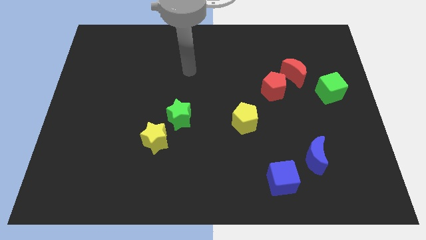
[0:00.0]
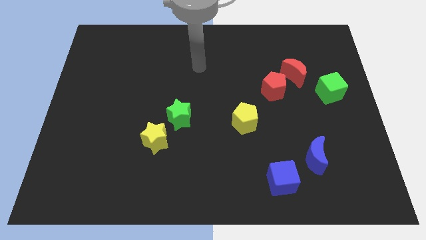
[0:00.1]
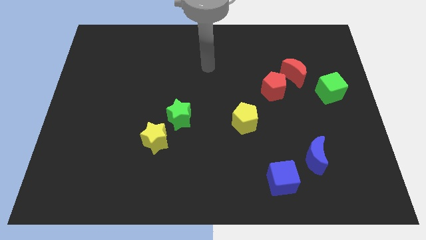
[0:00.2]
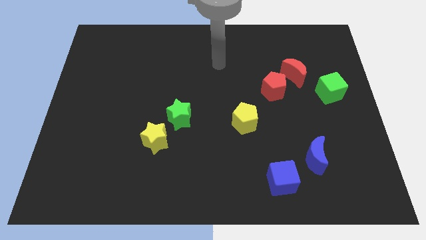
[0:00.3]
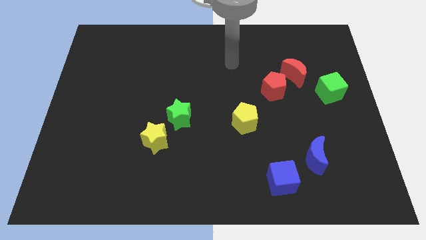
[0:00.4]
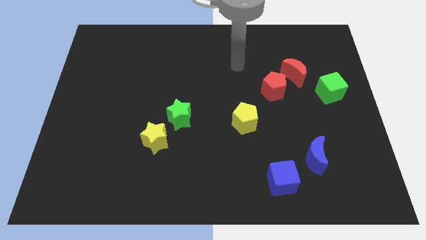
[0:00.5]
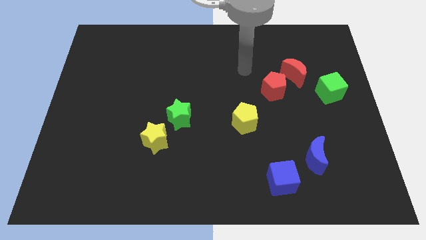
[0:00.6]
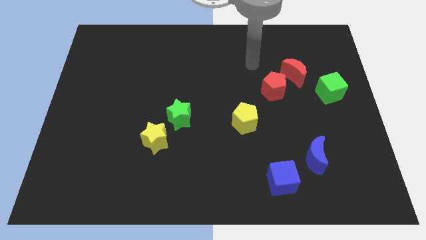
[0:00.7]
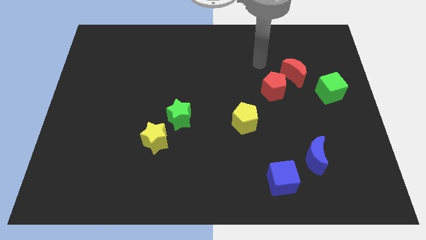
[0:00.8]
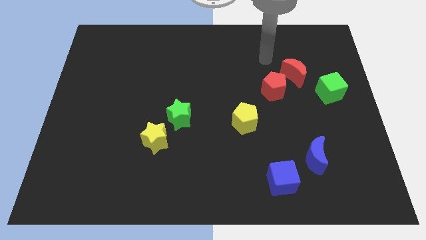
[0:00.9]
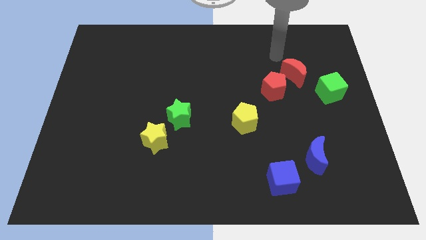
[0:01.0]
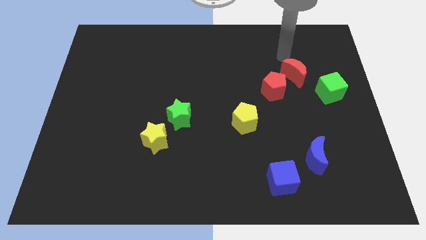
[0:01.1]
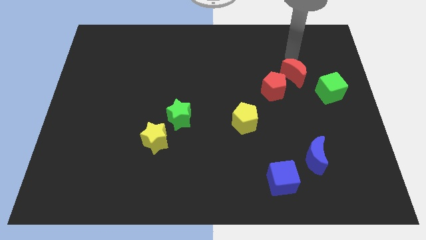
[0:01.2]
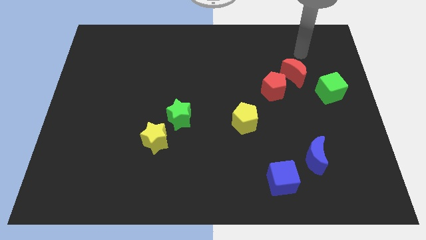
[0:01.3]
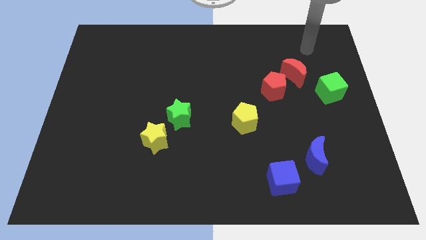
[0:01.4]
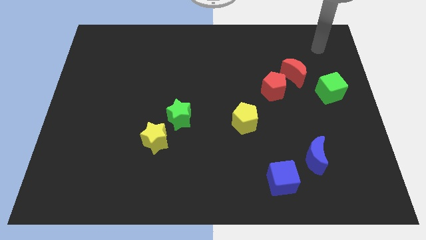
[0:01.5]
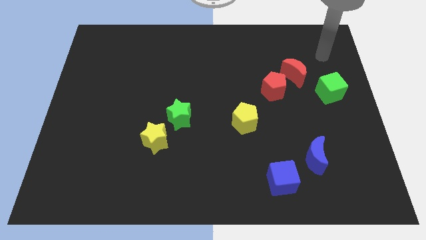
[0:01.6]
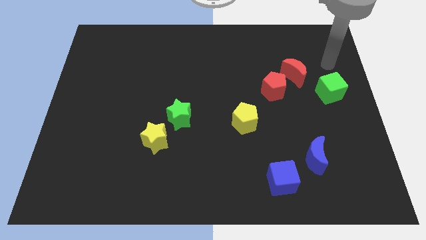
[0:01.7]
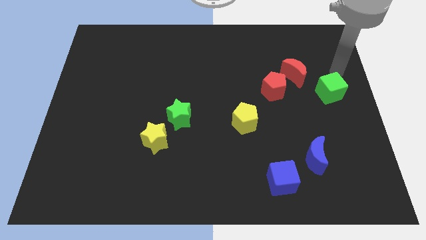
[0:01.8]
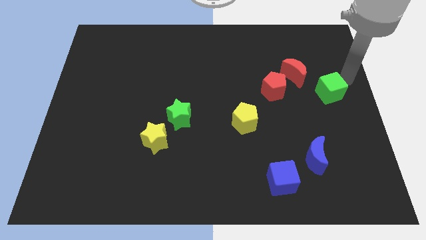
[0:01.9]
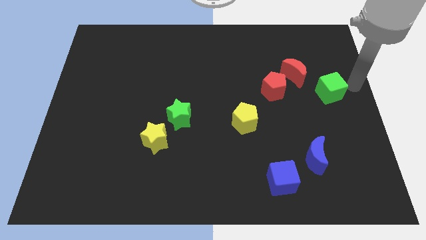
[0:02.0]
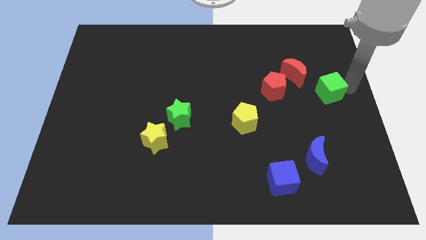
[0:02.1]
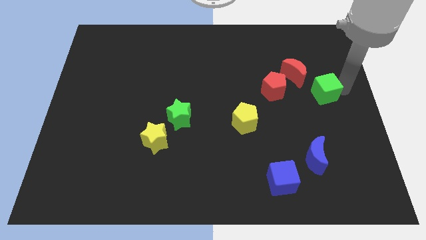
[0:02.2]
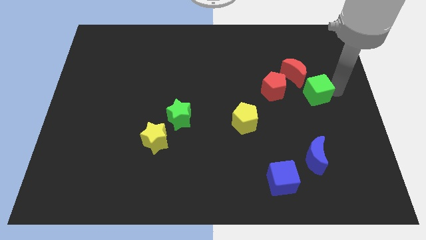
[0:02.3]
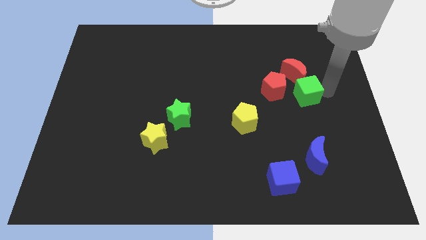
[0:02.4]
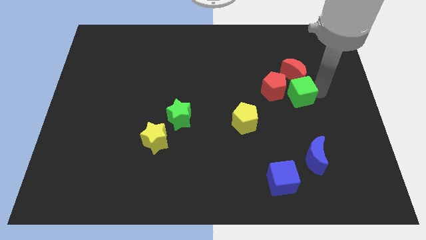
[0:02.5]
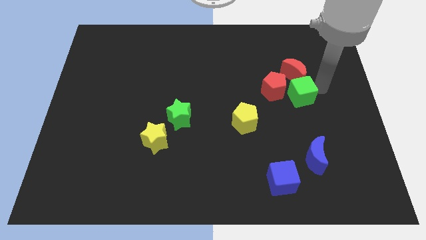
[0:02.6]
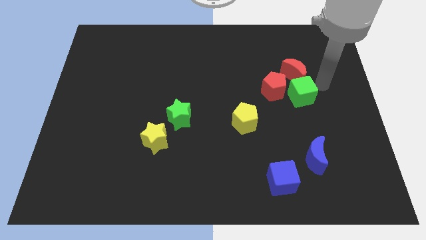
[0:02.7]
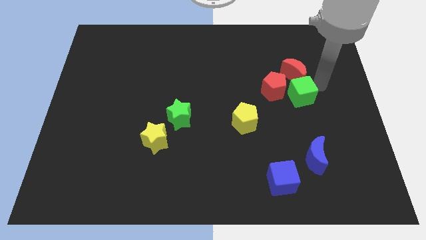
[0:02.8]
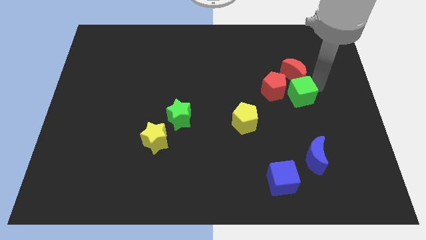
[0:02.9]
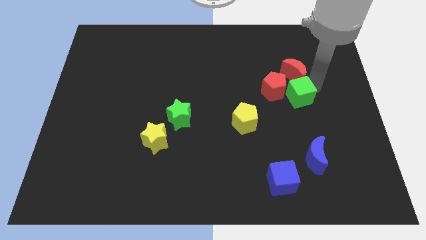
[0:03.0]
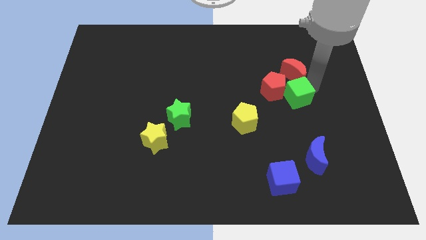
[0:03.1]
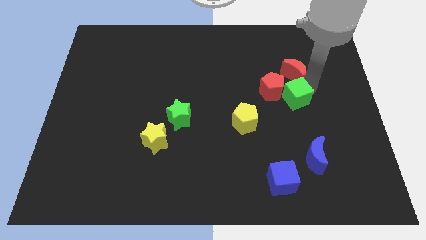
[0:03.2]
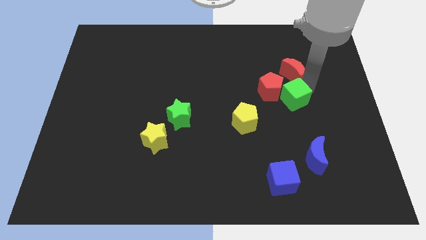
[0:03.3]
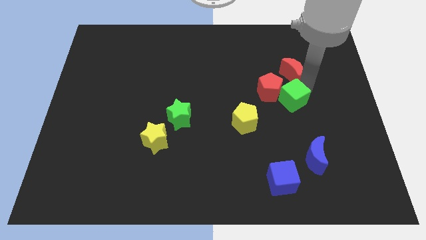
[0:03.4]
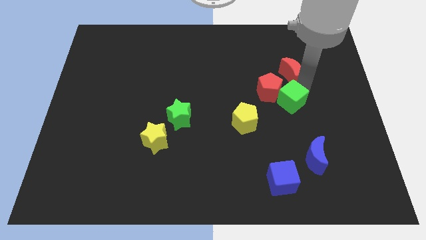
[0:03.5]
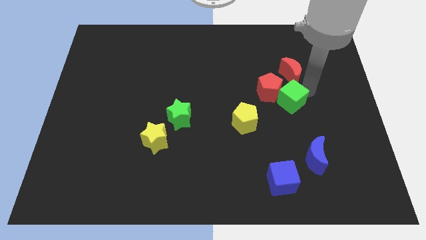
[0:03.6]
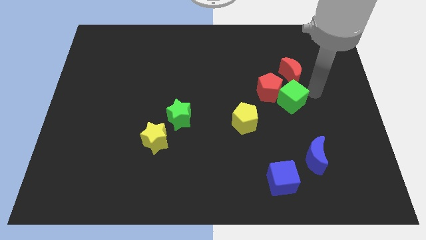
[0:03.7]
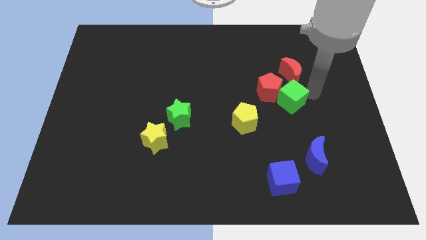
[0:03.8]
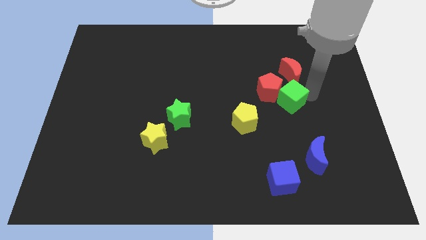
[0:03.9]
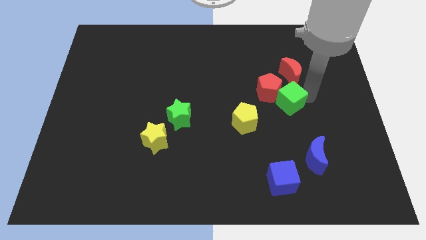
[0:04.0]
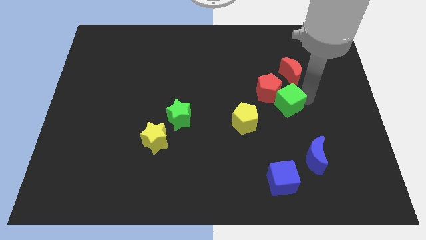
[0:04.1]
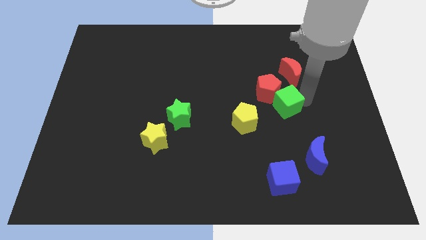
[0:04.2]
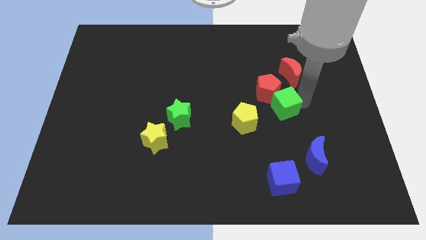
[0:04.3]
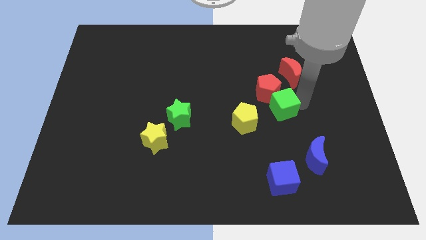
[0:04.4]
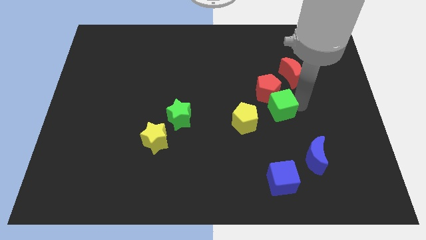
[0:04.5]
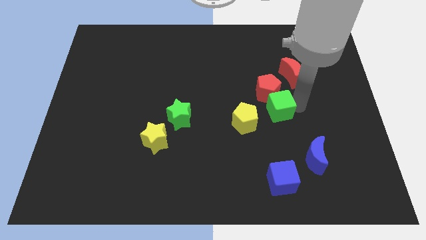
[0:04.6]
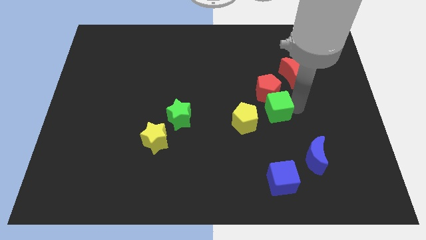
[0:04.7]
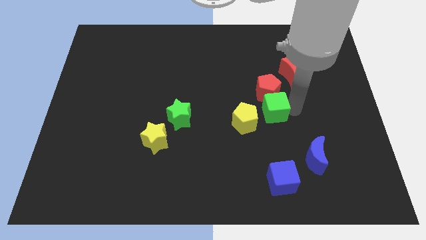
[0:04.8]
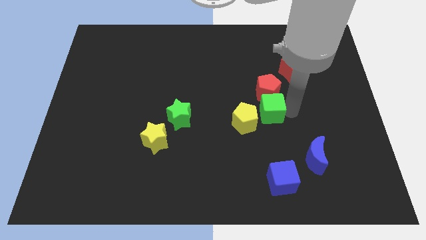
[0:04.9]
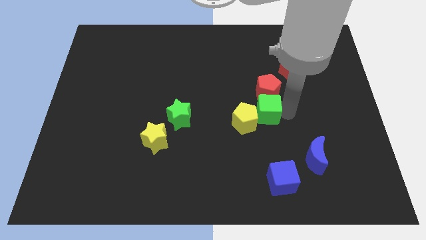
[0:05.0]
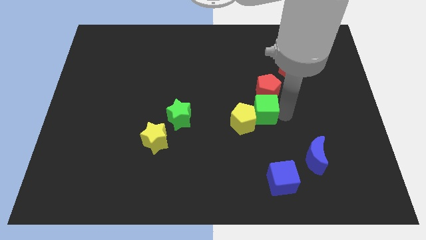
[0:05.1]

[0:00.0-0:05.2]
push the green cube to the middle of the board

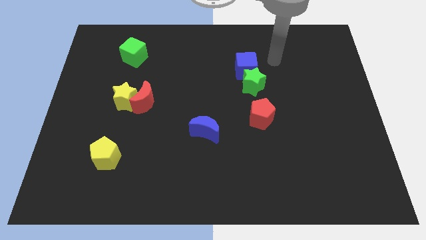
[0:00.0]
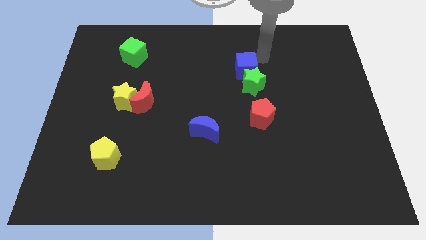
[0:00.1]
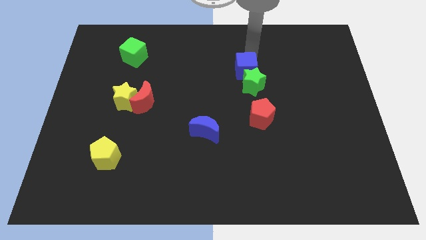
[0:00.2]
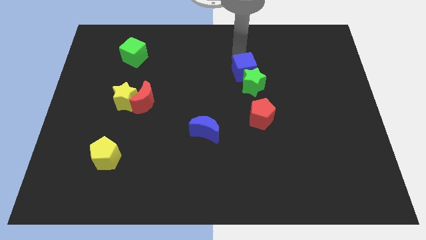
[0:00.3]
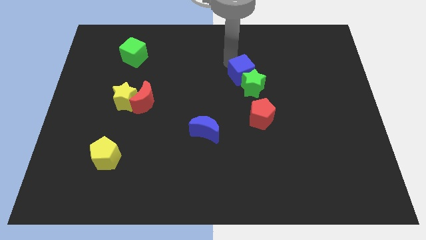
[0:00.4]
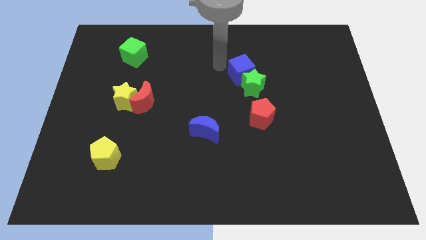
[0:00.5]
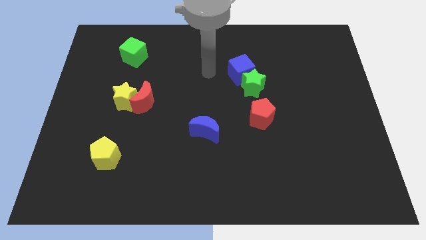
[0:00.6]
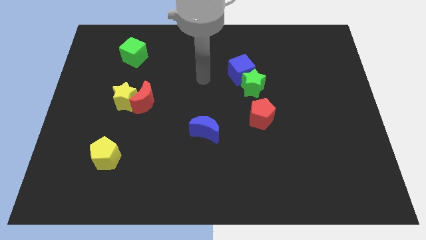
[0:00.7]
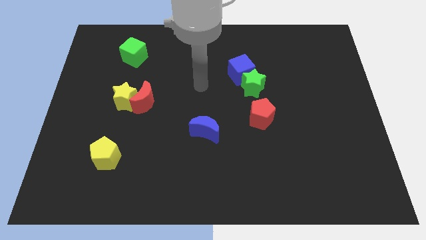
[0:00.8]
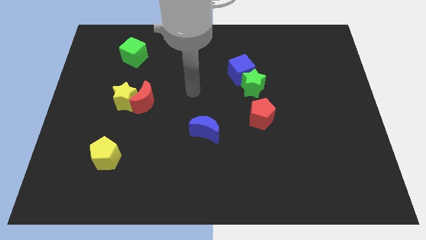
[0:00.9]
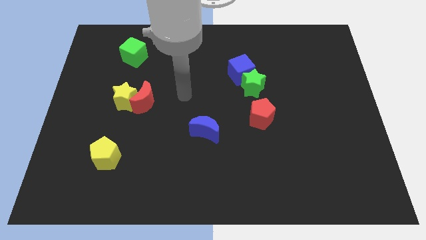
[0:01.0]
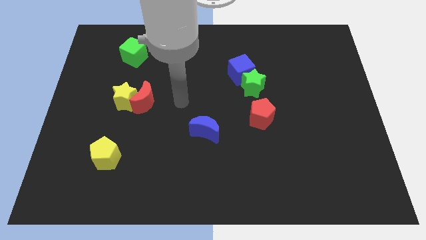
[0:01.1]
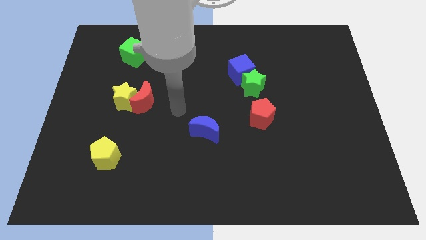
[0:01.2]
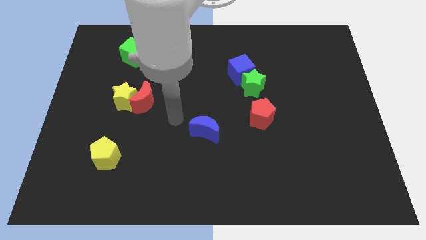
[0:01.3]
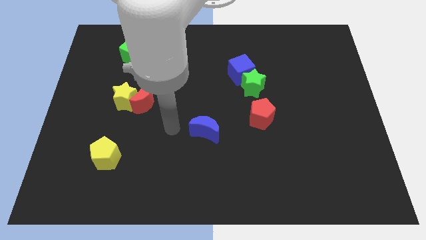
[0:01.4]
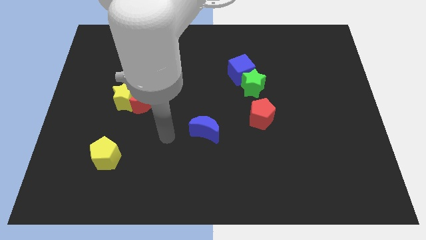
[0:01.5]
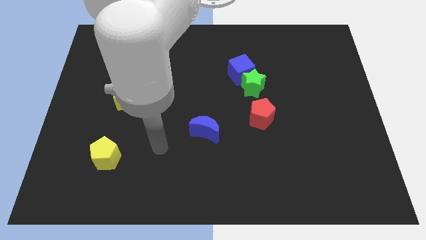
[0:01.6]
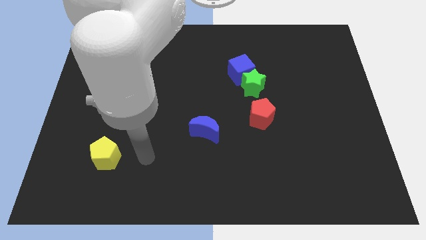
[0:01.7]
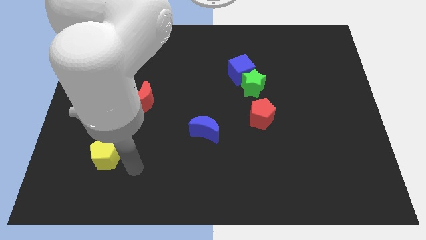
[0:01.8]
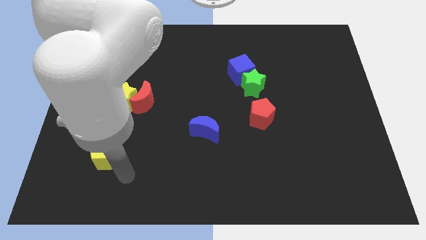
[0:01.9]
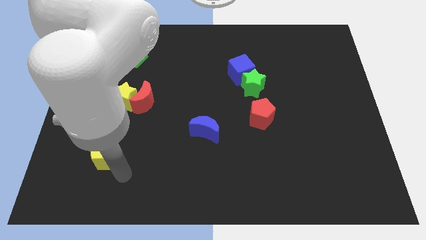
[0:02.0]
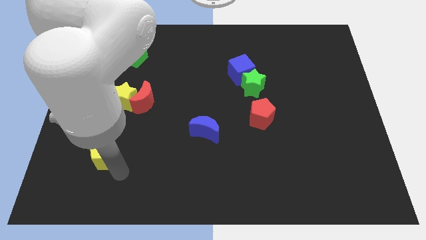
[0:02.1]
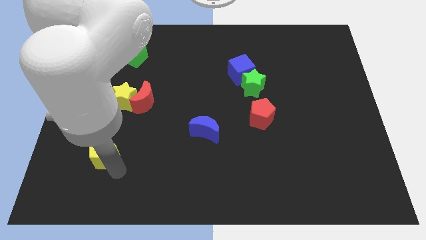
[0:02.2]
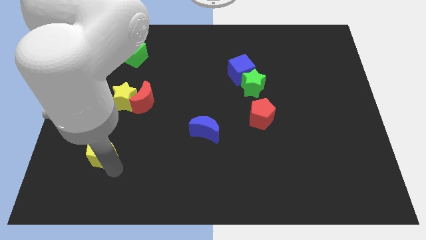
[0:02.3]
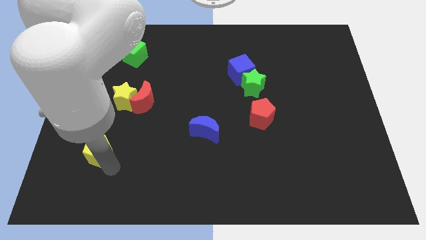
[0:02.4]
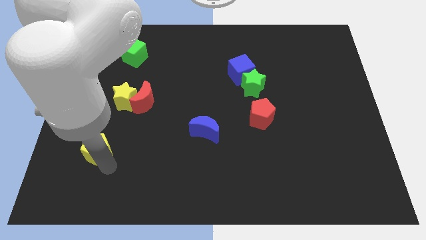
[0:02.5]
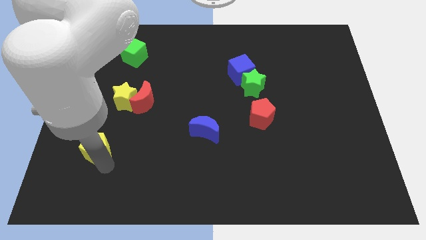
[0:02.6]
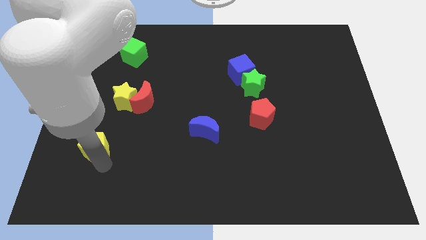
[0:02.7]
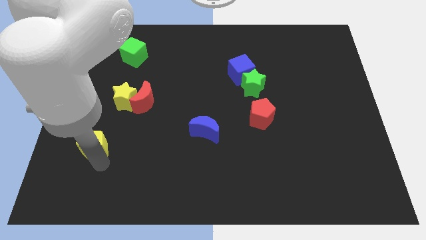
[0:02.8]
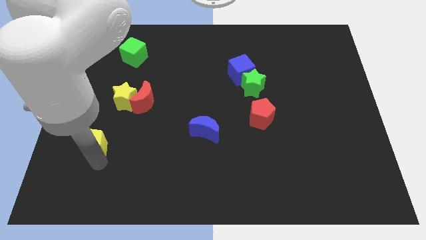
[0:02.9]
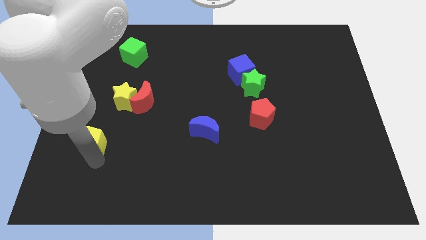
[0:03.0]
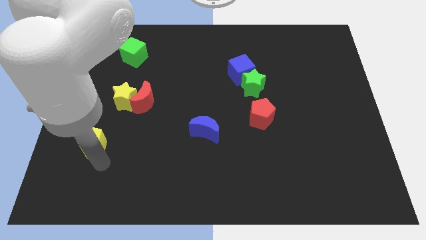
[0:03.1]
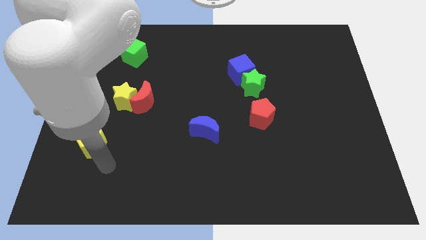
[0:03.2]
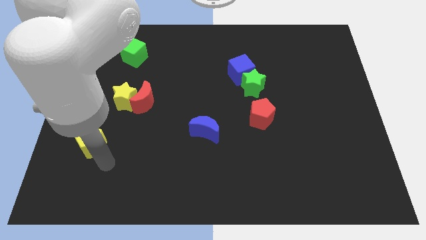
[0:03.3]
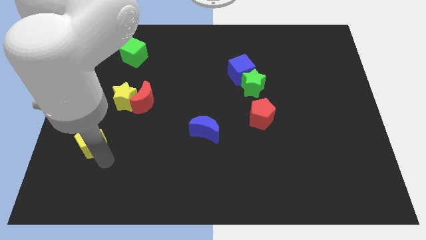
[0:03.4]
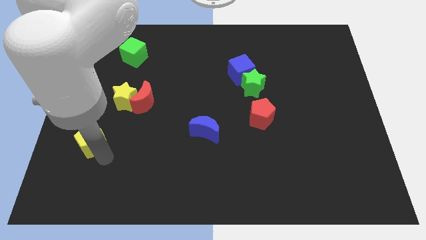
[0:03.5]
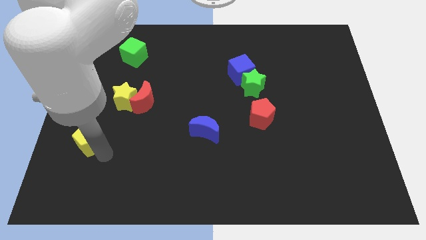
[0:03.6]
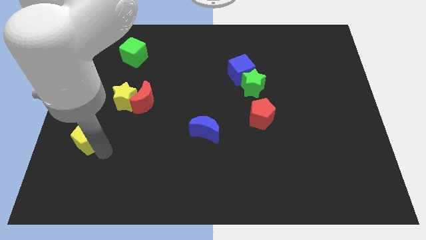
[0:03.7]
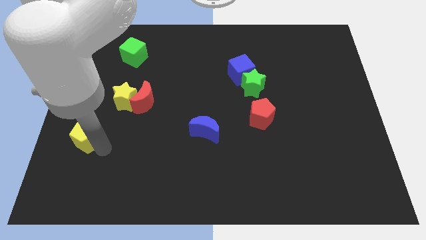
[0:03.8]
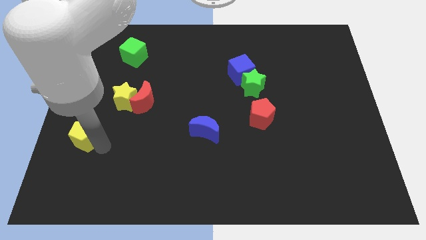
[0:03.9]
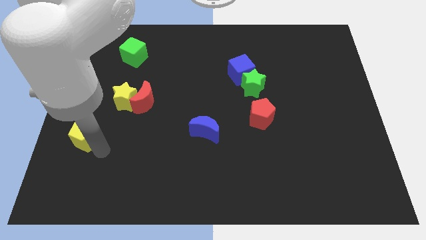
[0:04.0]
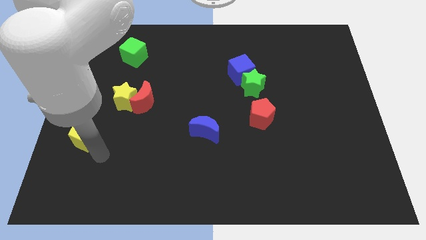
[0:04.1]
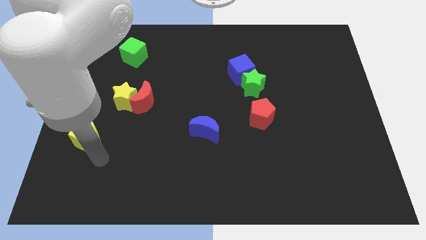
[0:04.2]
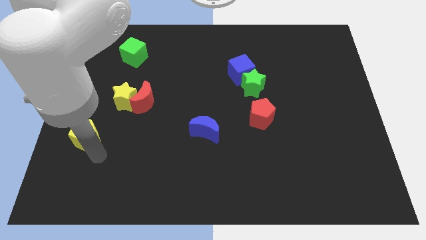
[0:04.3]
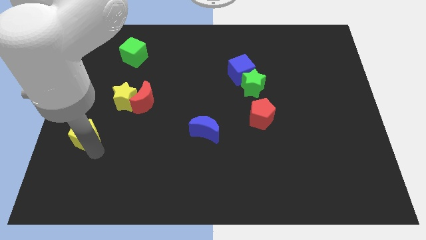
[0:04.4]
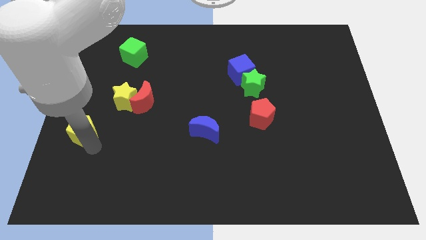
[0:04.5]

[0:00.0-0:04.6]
put the yellow pentagon to the left side of the board
